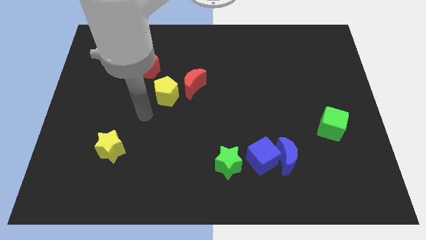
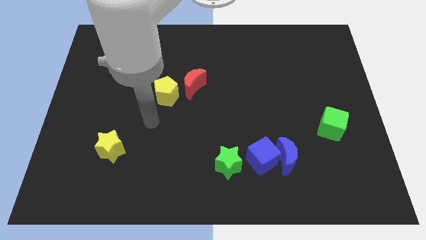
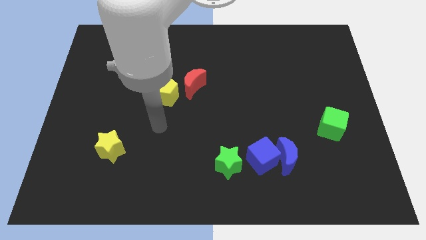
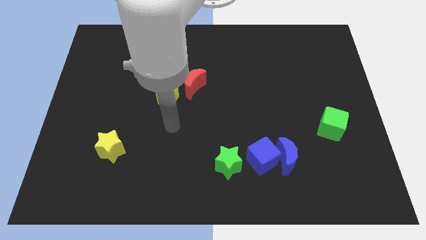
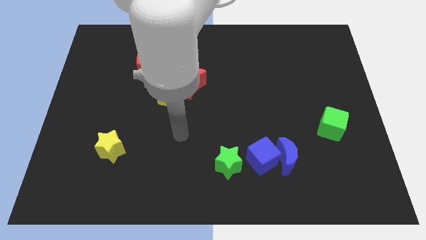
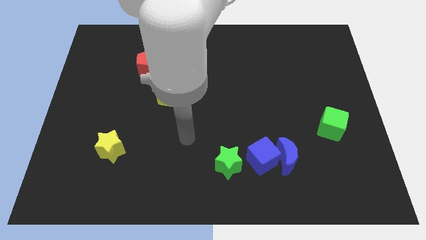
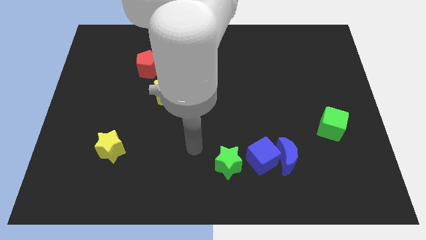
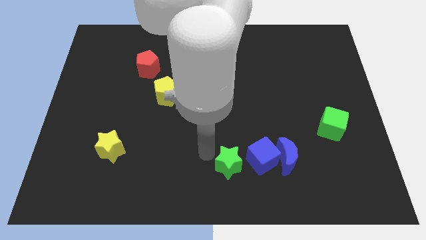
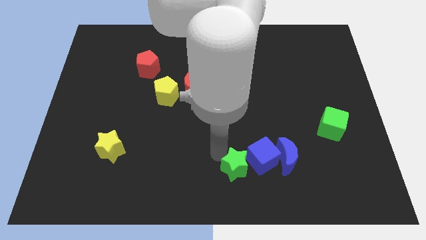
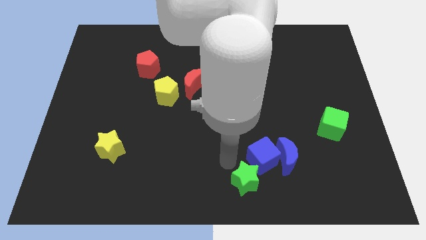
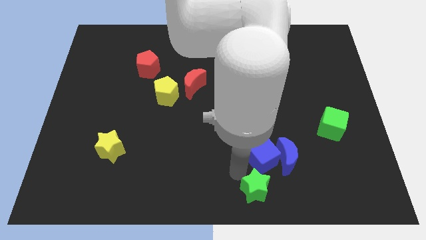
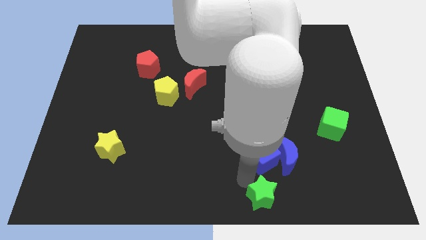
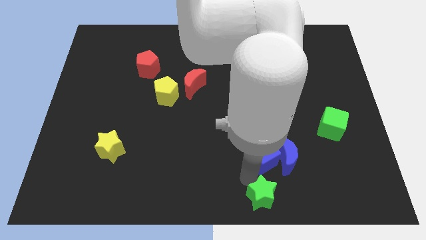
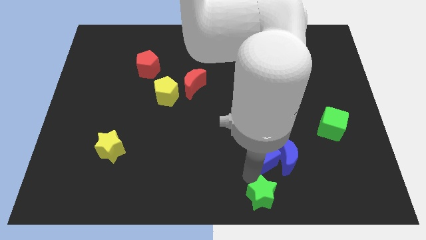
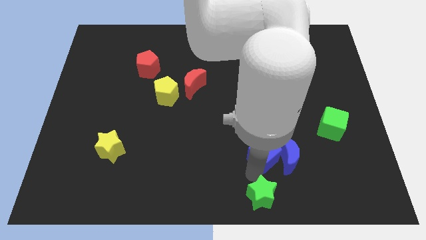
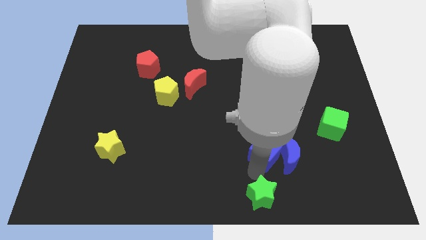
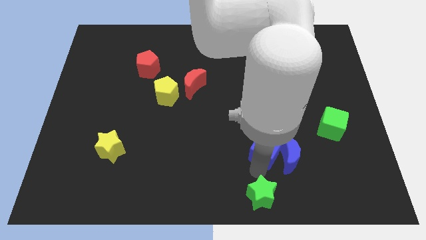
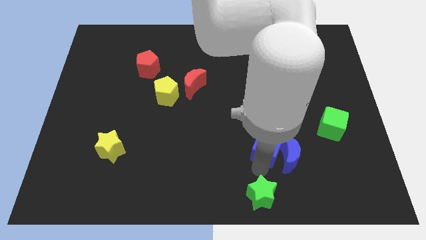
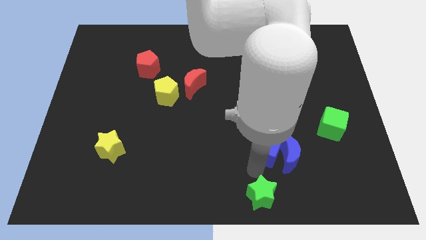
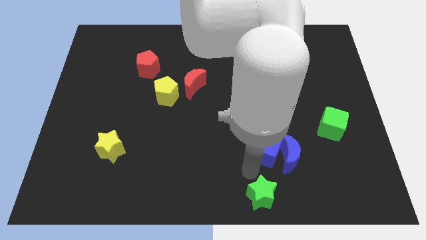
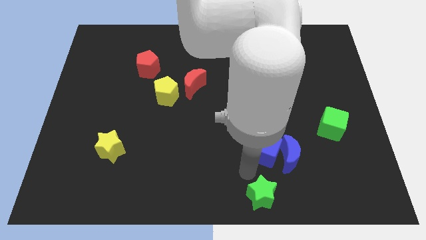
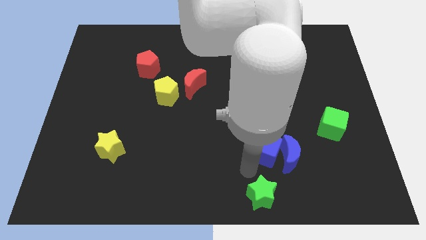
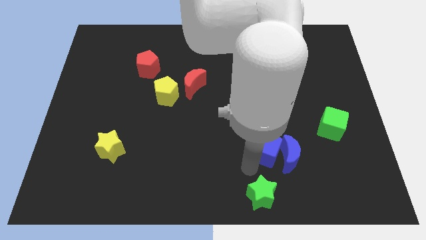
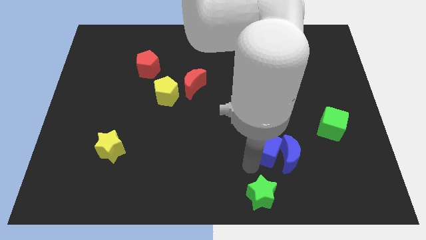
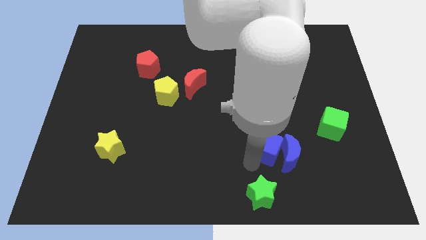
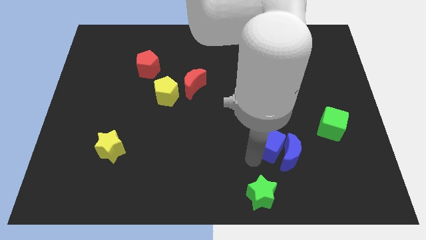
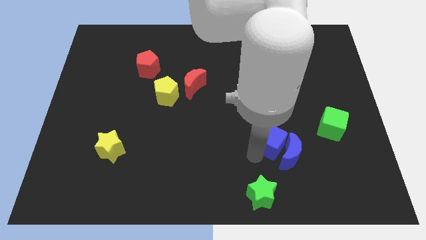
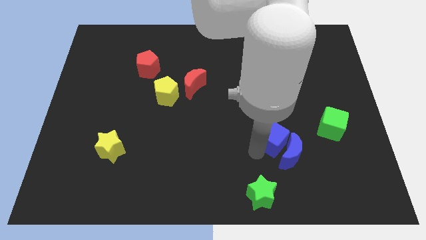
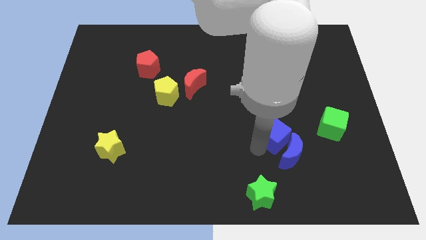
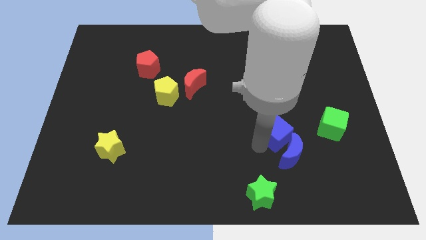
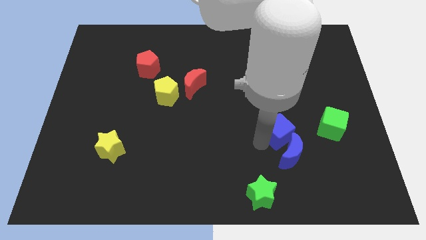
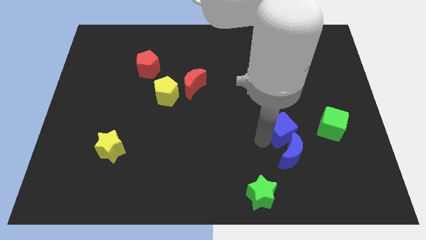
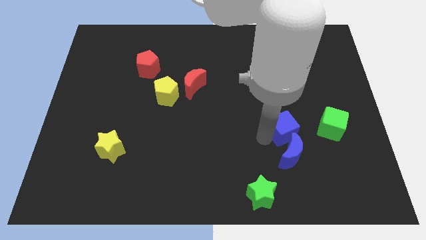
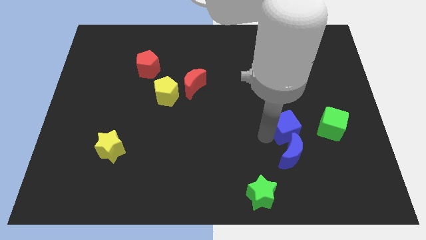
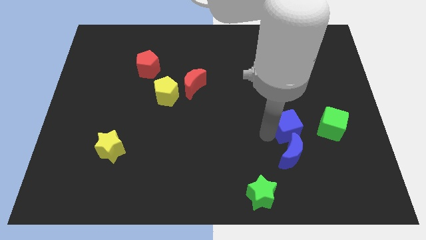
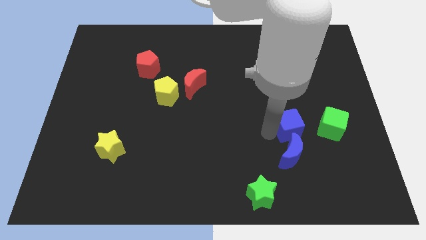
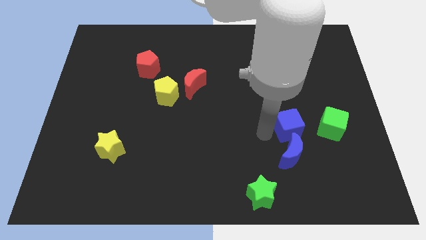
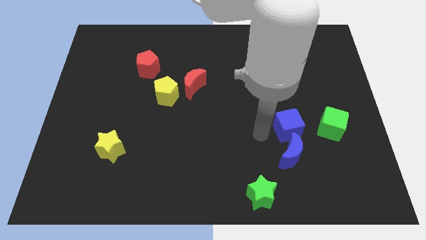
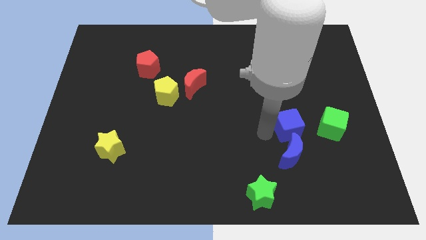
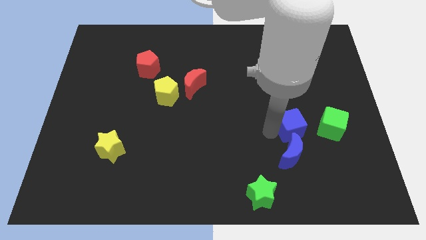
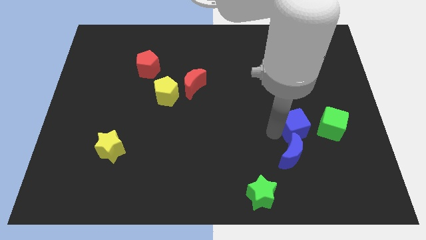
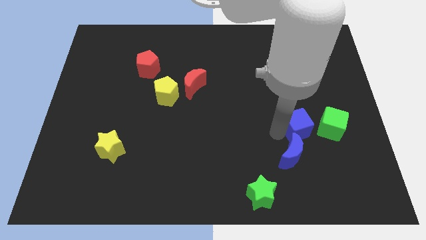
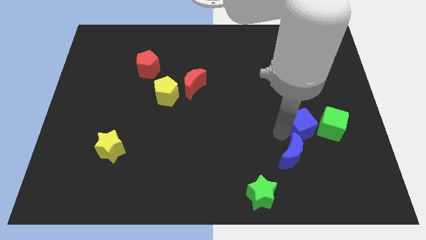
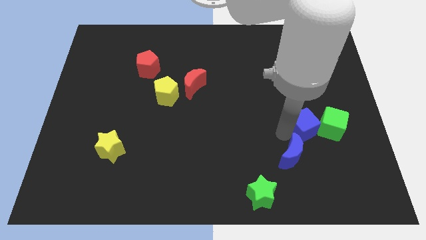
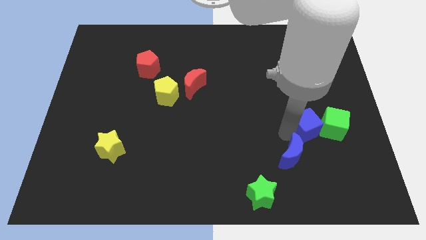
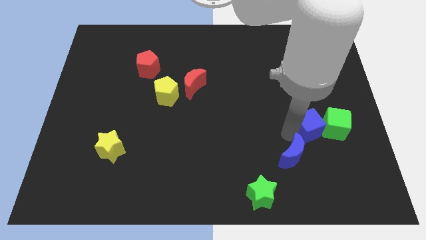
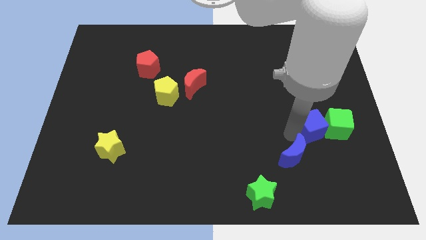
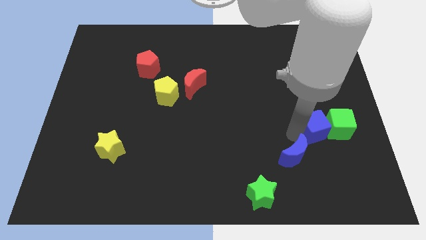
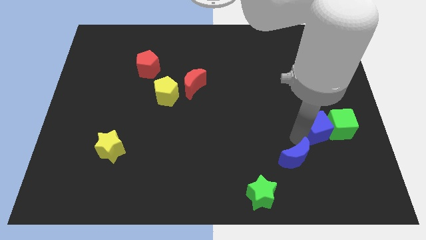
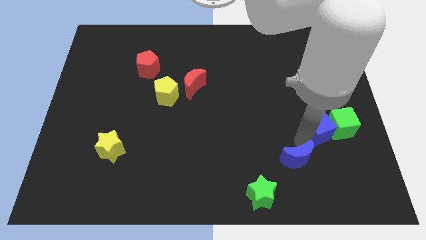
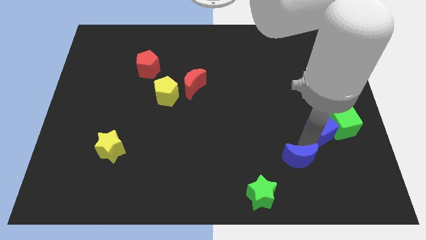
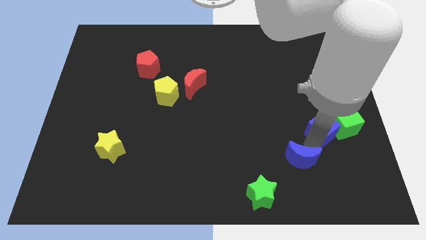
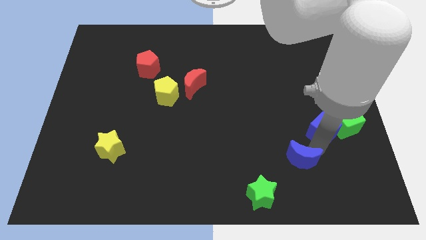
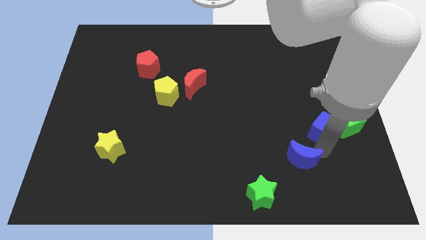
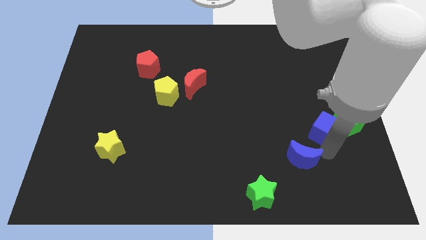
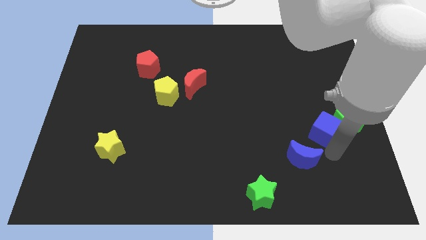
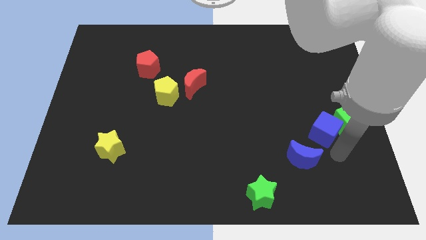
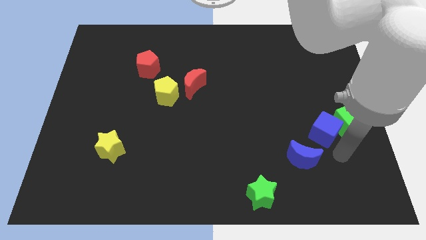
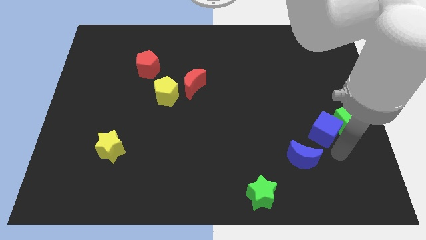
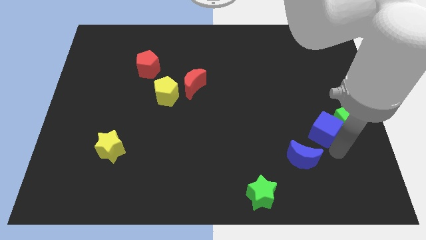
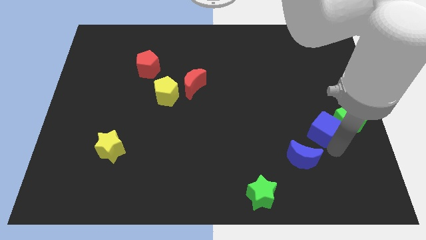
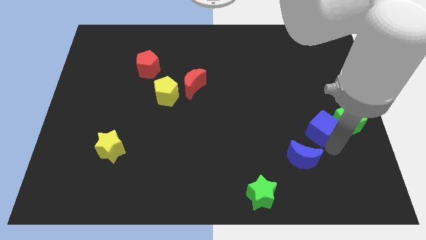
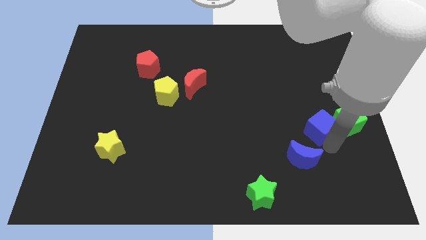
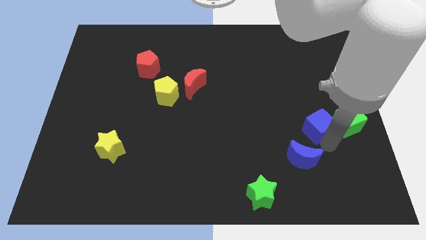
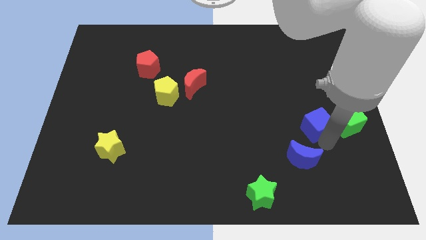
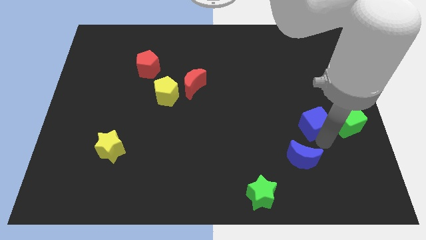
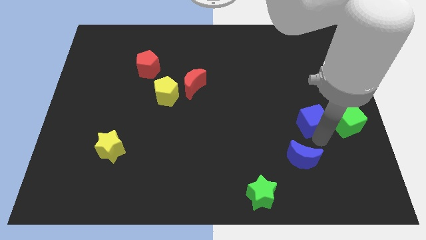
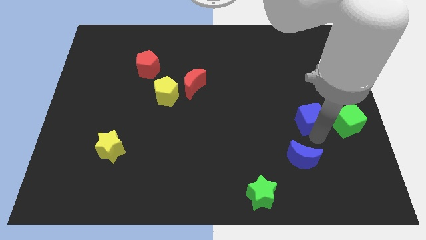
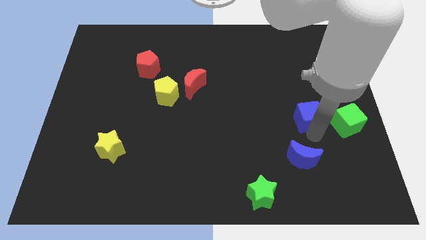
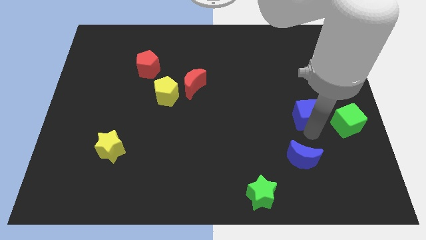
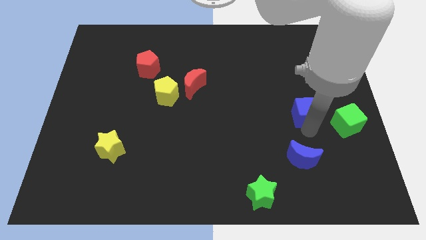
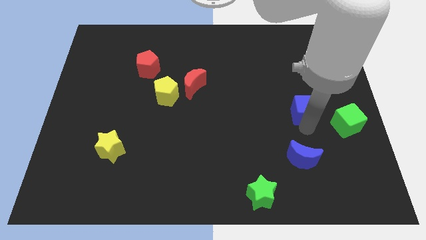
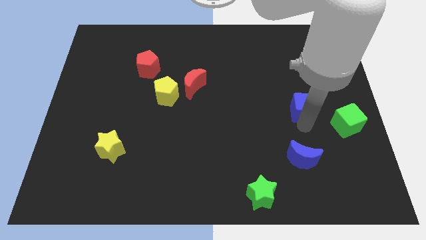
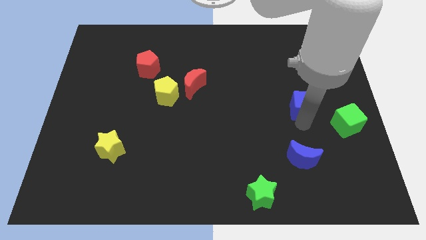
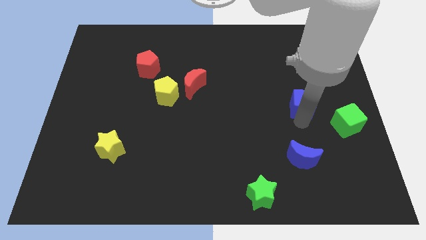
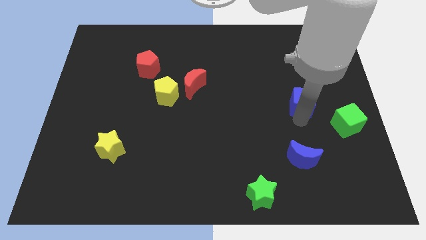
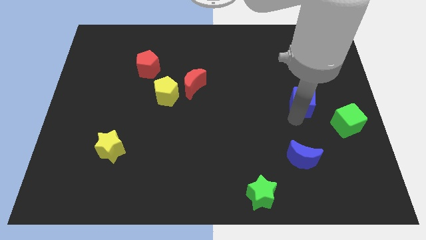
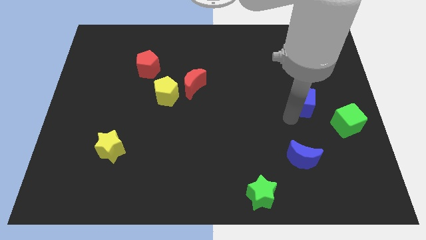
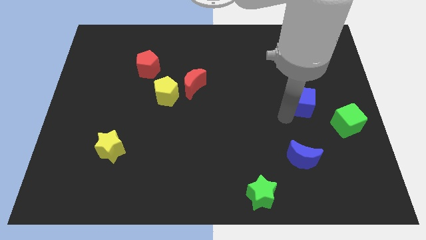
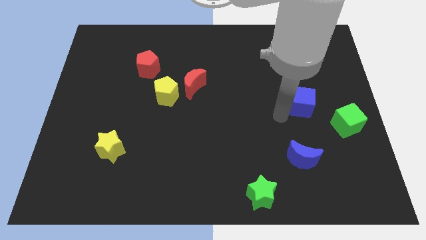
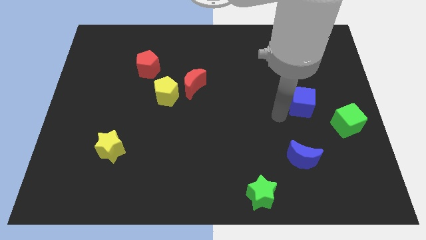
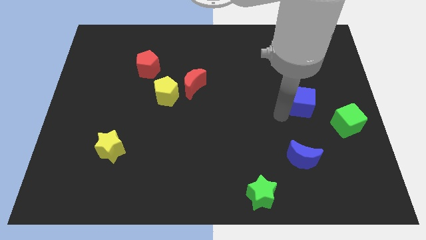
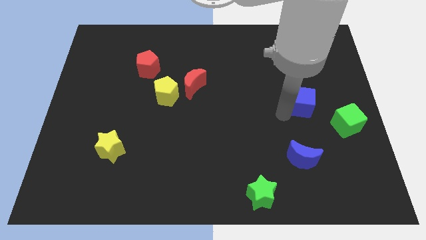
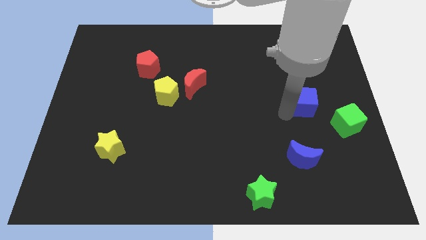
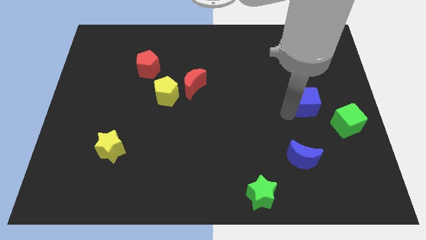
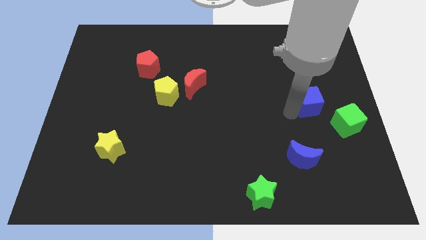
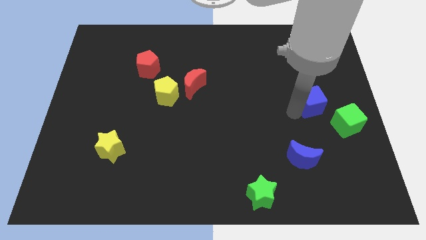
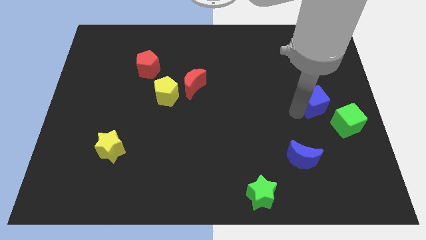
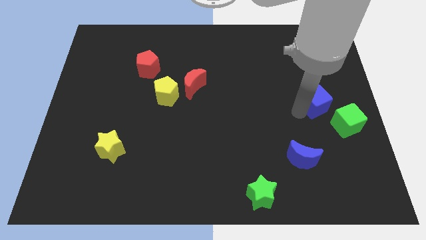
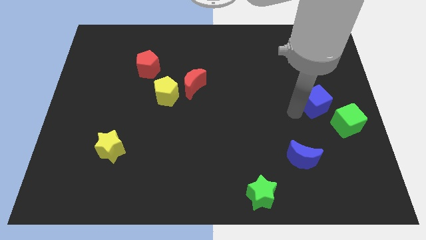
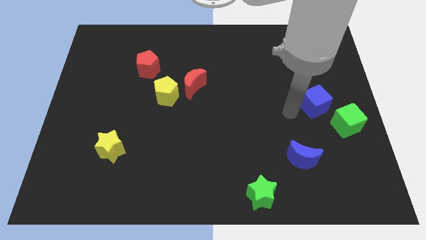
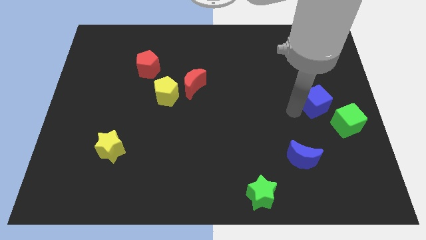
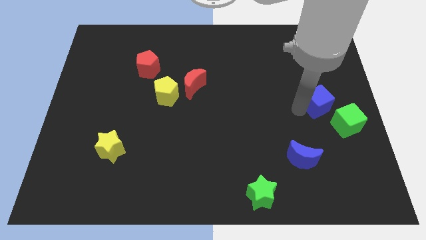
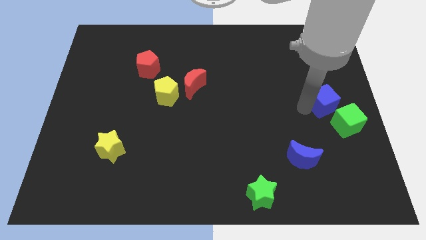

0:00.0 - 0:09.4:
put the blue cube to the right side of the board
